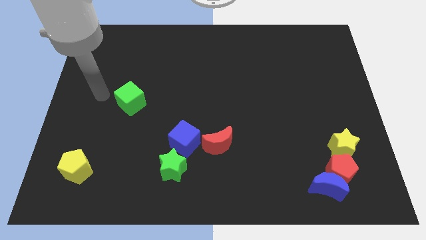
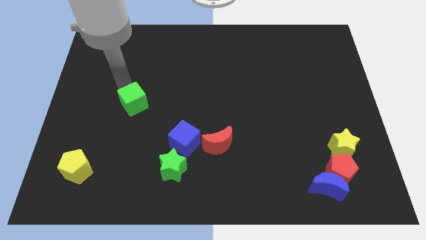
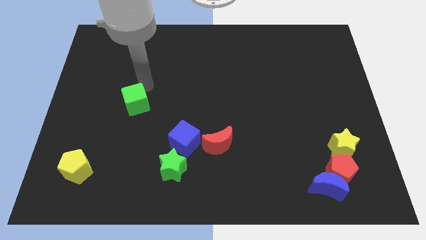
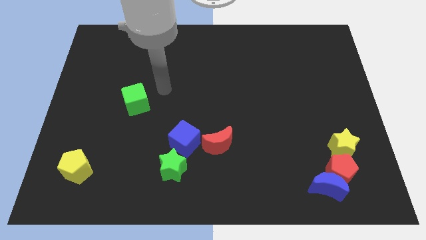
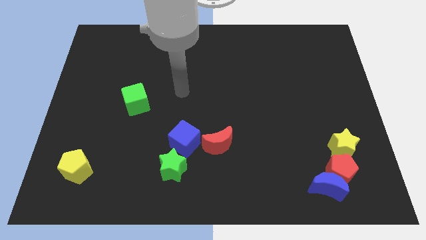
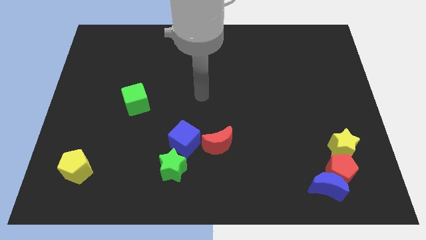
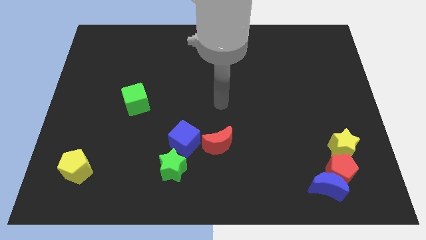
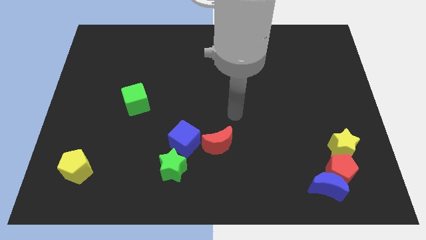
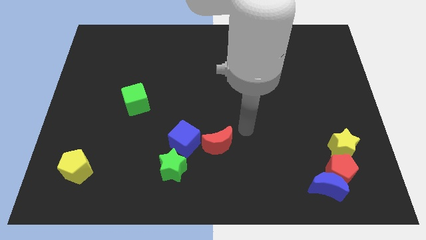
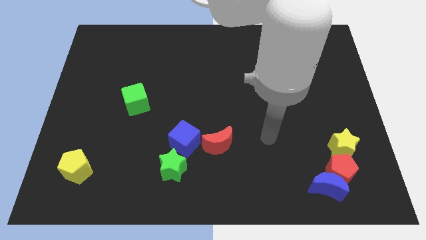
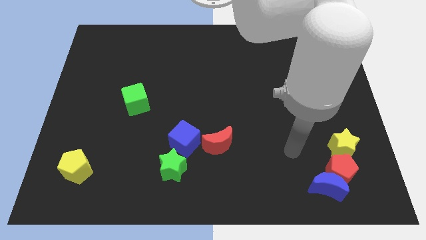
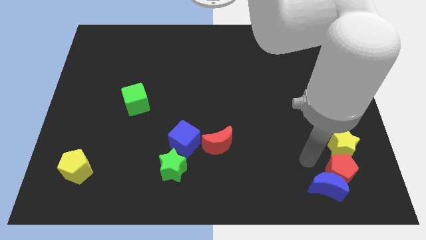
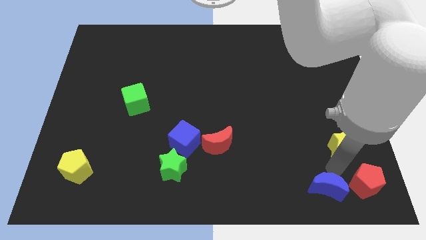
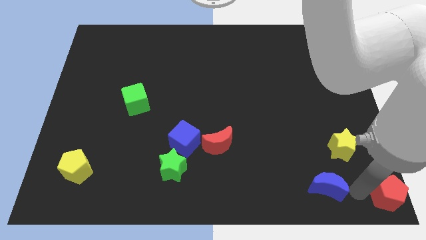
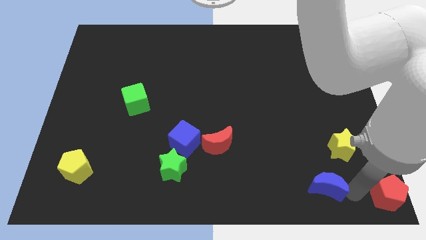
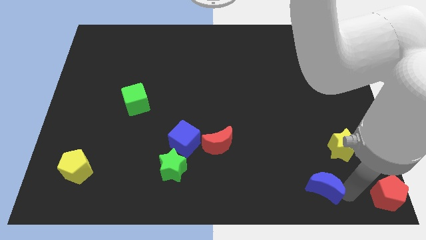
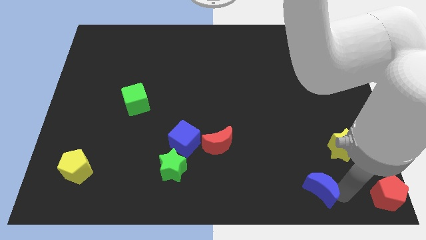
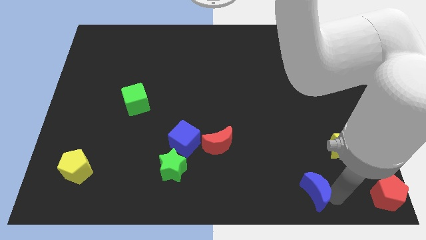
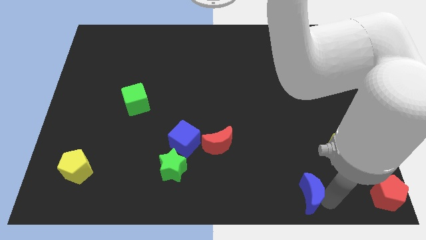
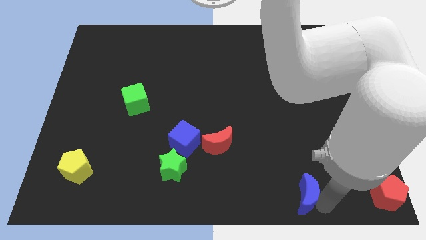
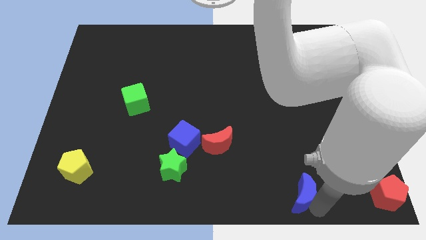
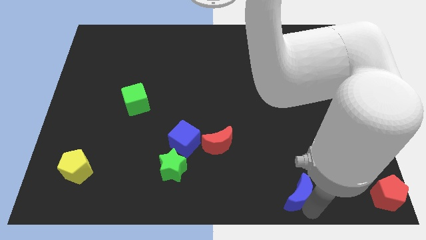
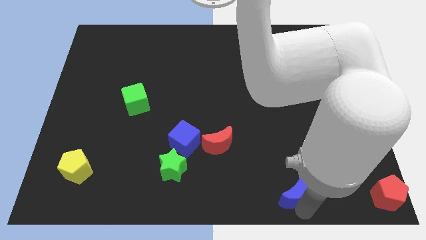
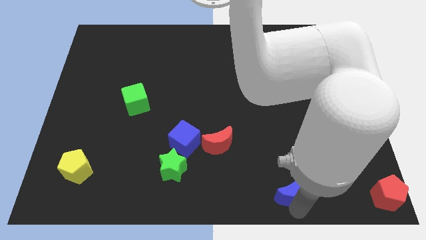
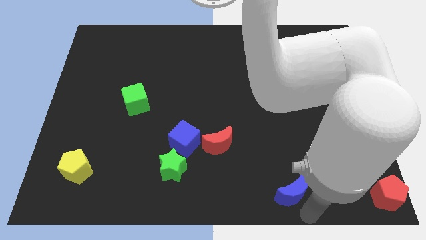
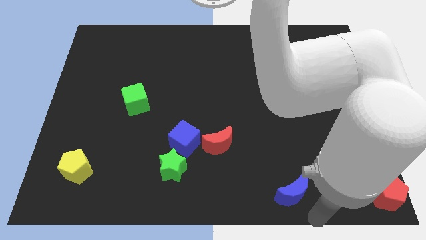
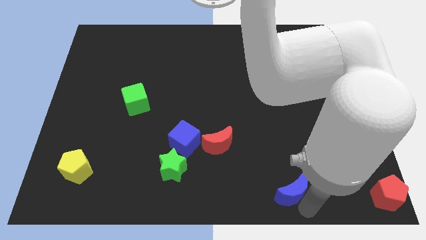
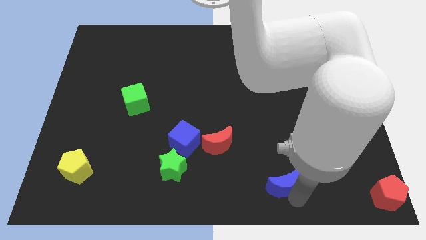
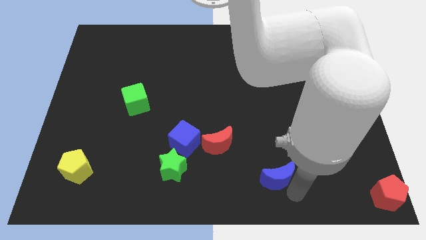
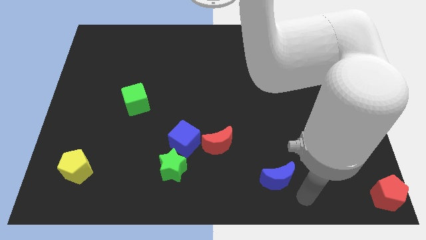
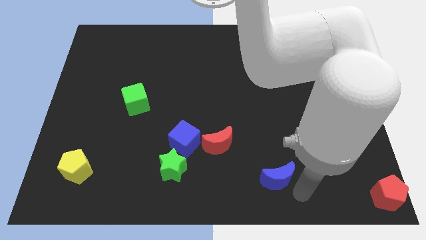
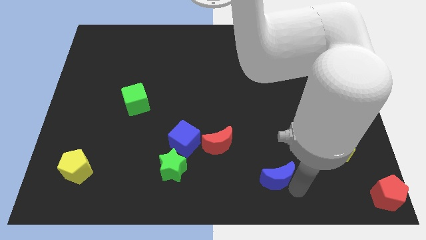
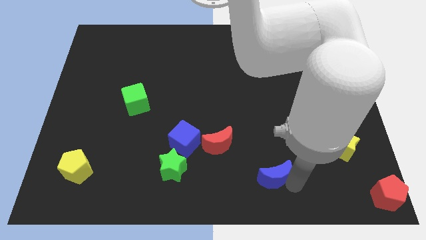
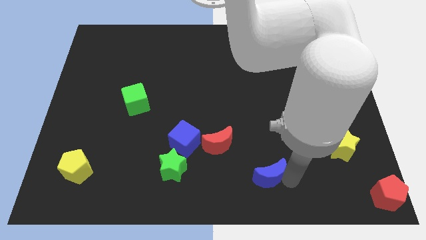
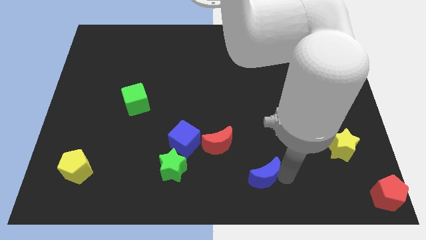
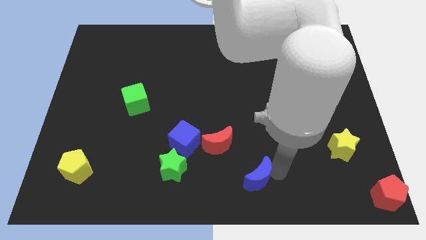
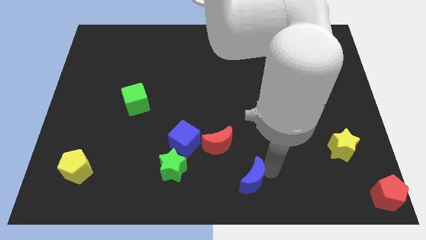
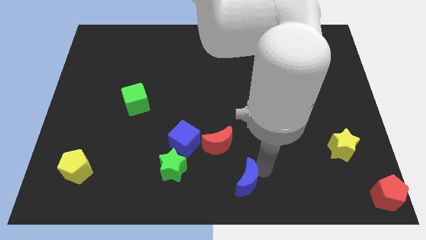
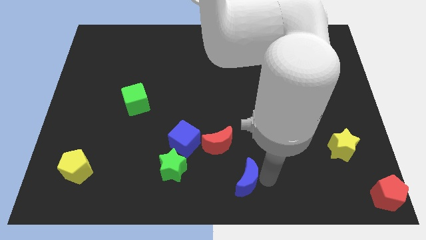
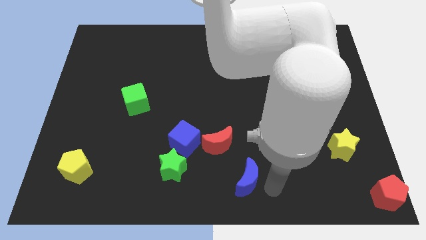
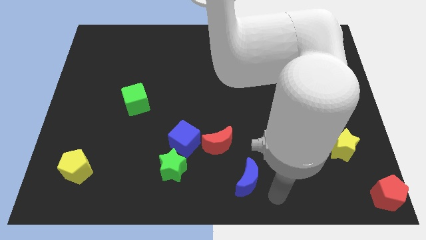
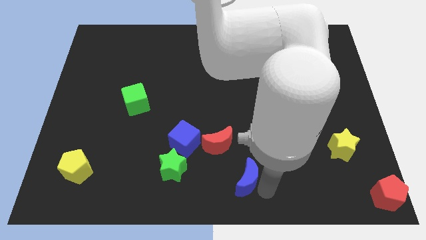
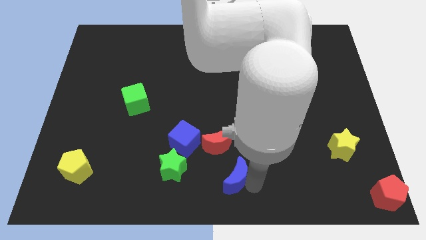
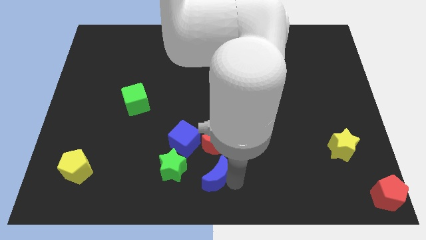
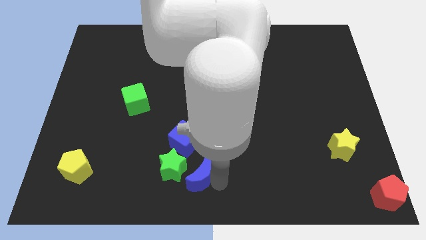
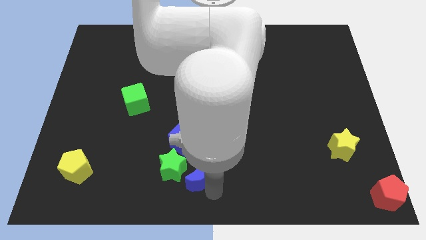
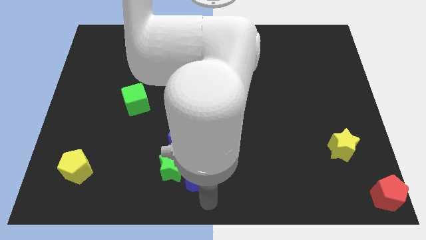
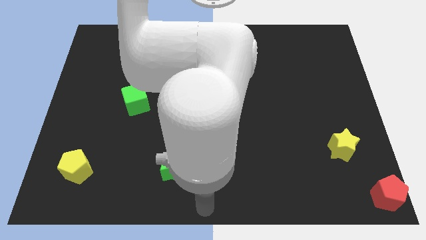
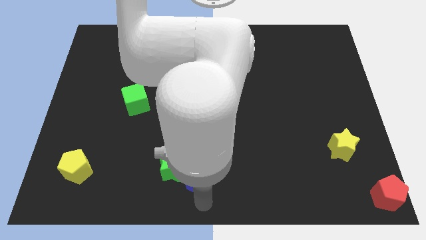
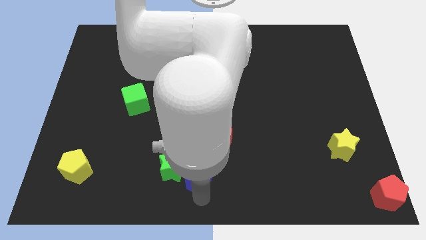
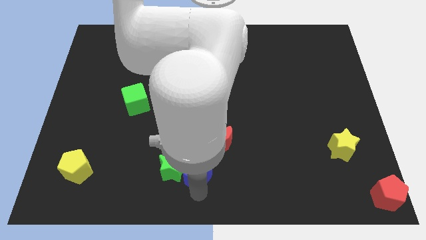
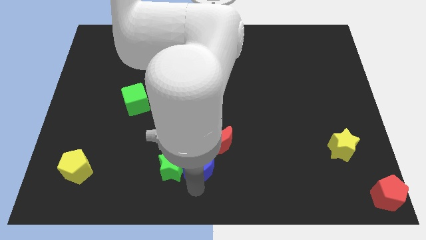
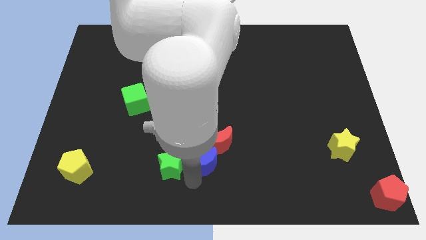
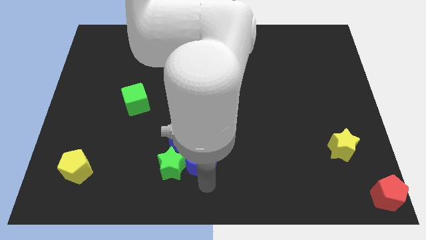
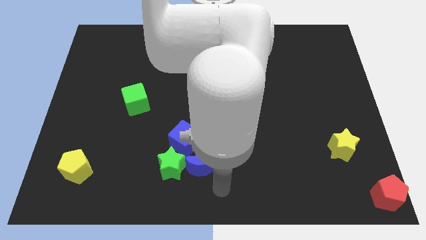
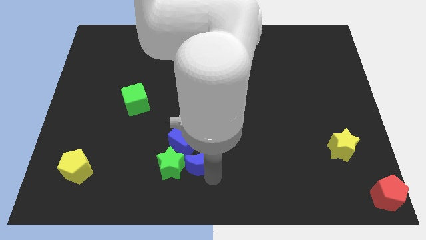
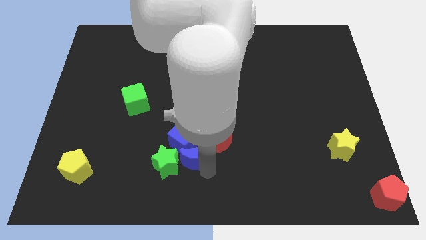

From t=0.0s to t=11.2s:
move the blue moon next to the blue cube

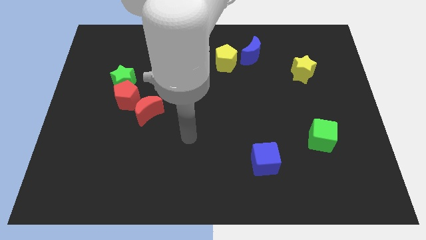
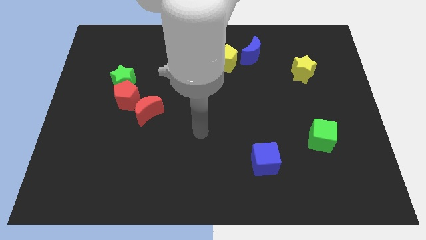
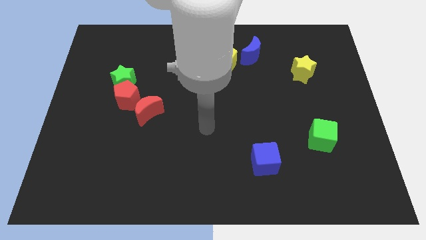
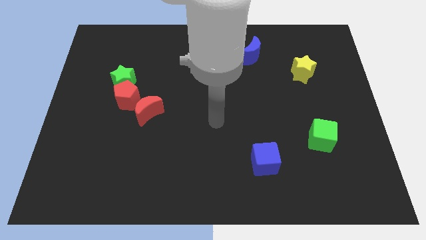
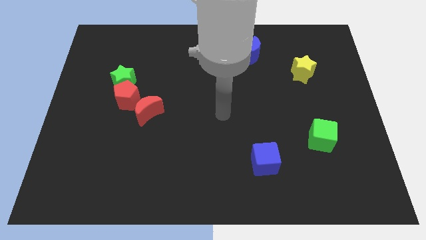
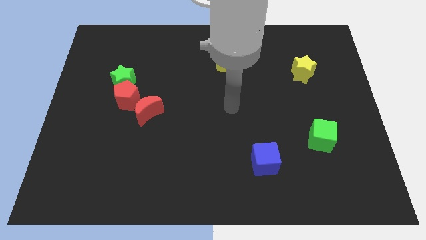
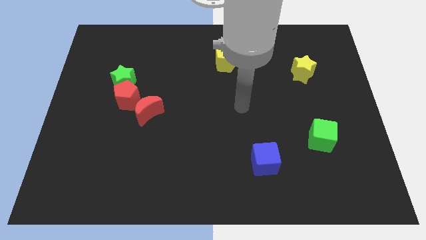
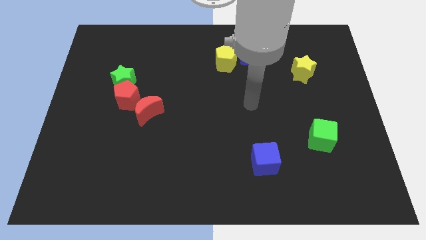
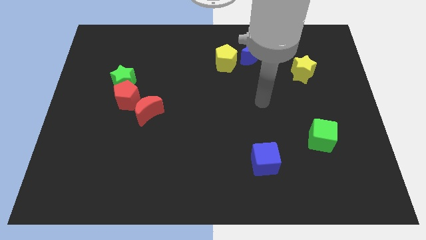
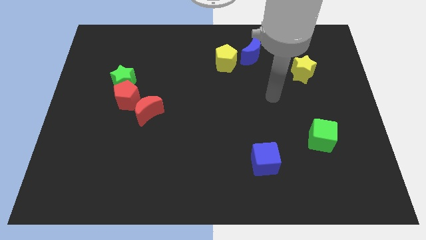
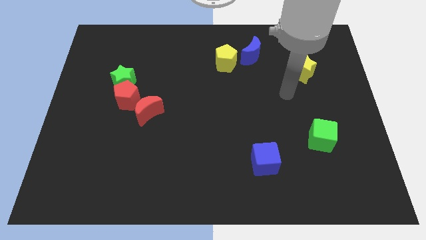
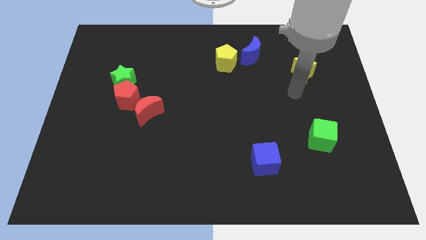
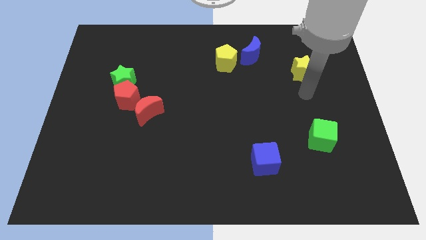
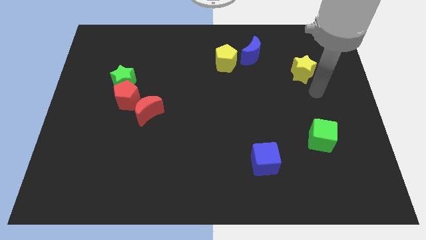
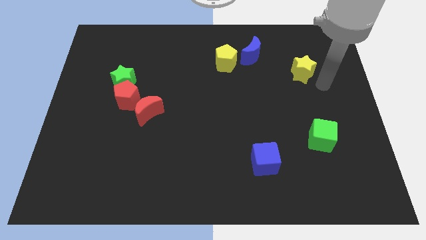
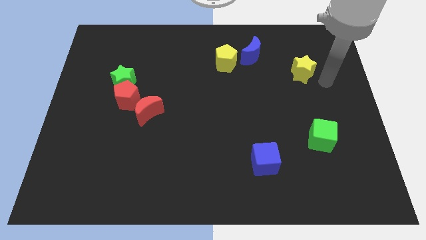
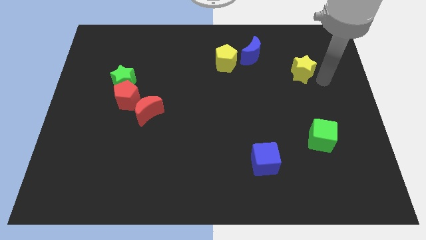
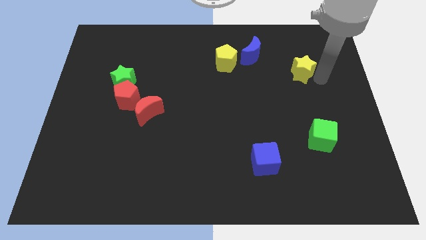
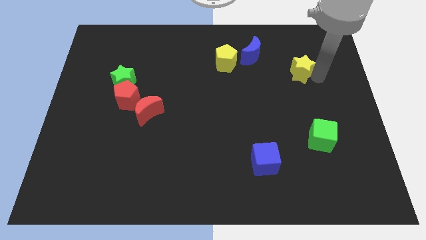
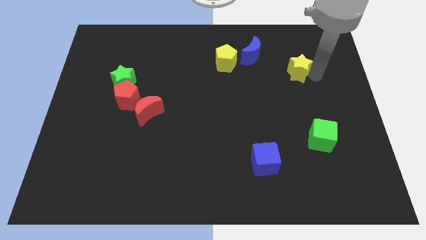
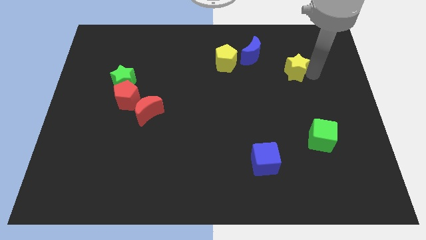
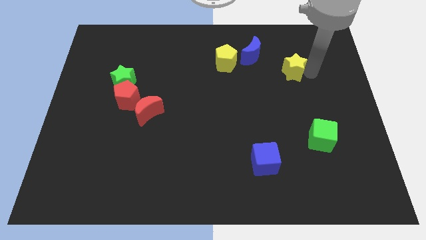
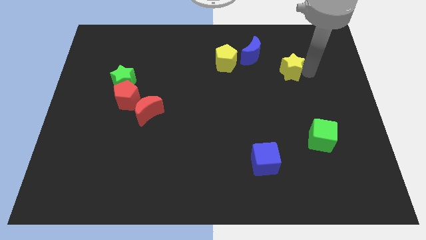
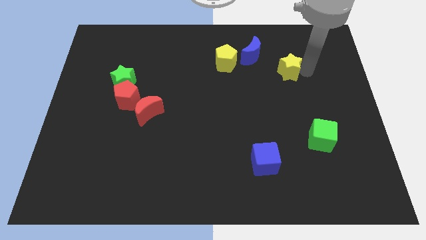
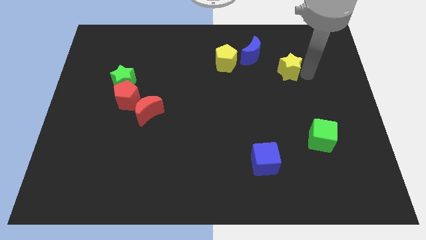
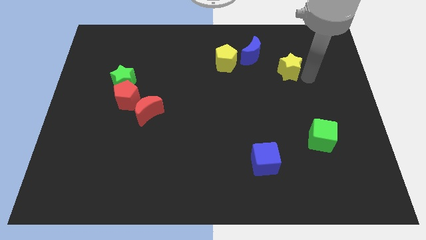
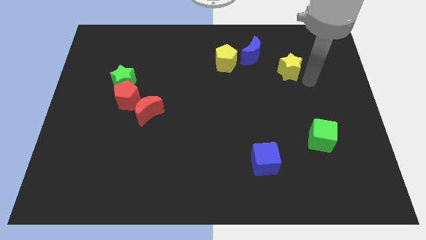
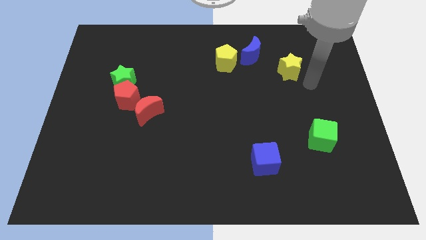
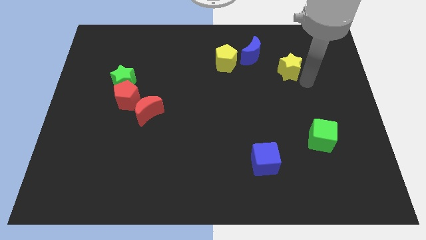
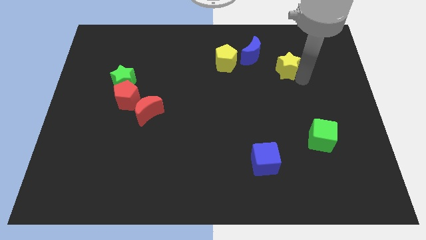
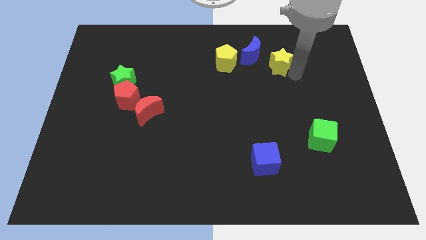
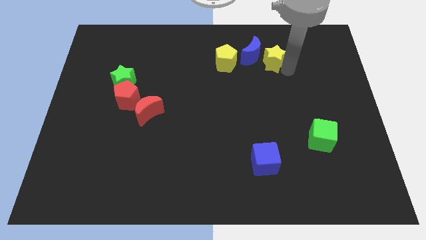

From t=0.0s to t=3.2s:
push the yellow star close to the blue moon
